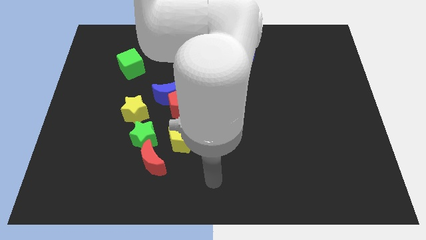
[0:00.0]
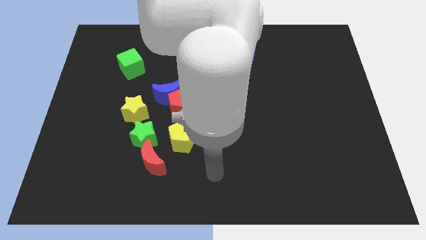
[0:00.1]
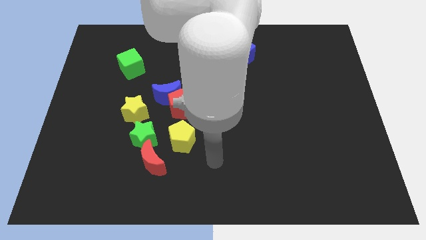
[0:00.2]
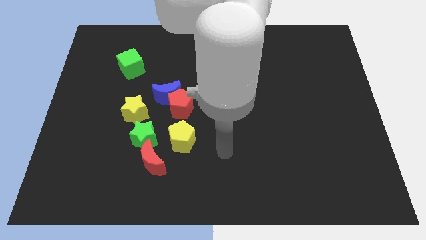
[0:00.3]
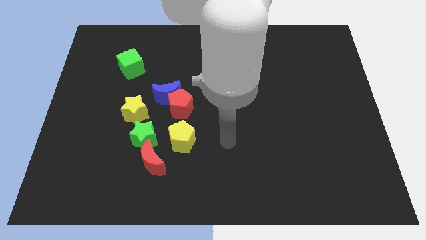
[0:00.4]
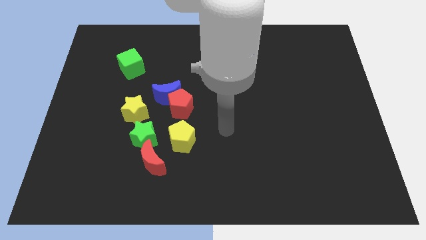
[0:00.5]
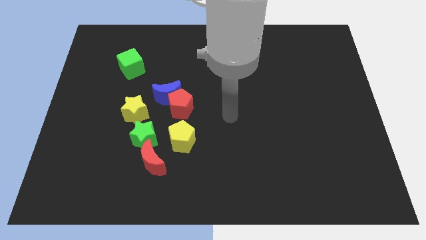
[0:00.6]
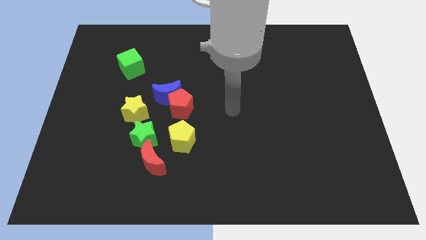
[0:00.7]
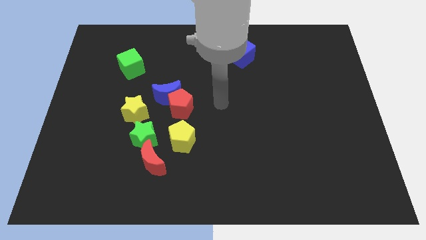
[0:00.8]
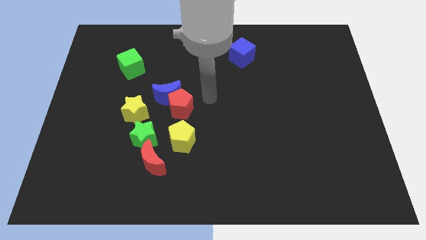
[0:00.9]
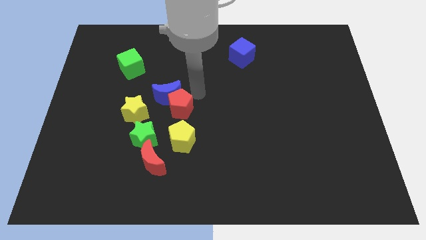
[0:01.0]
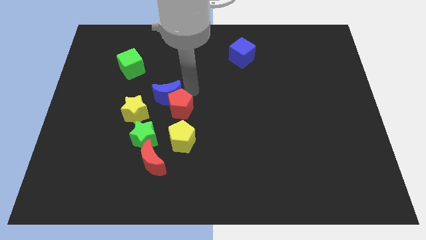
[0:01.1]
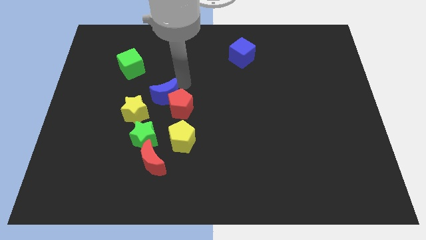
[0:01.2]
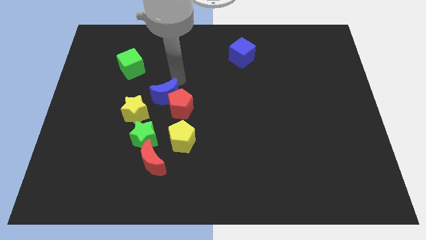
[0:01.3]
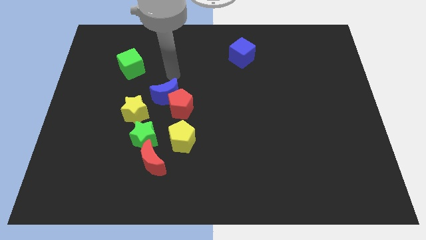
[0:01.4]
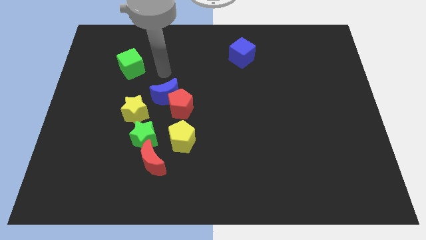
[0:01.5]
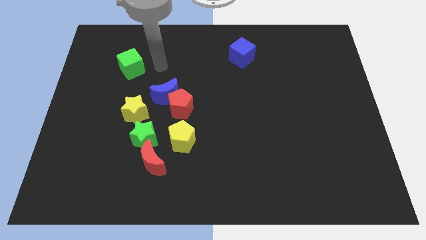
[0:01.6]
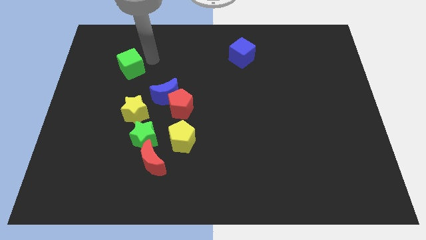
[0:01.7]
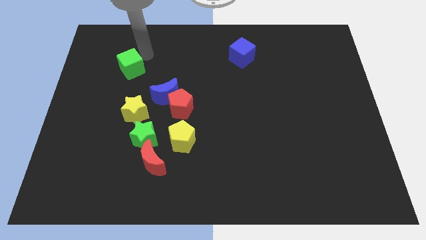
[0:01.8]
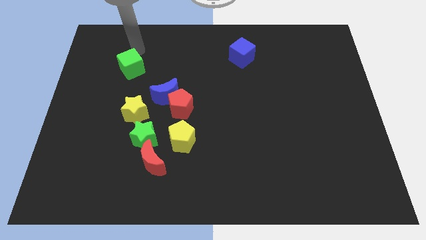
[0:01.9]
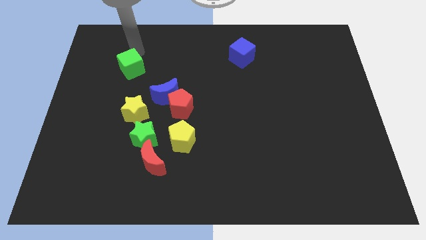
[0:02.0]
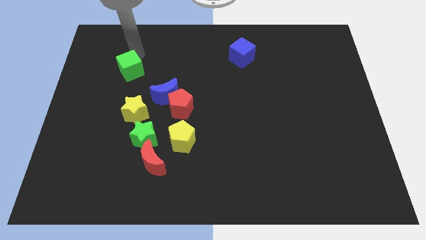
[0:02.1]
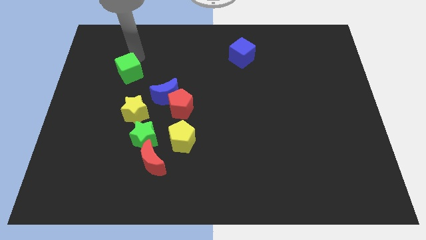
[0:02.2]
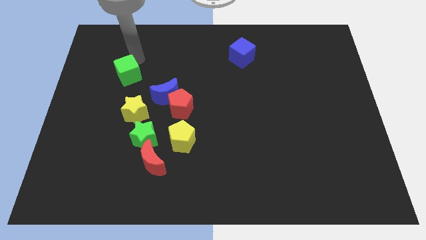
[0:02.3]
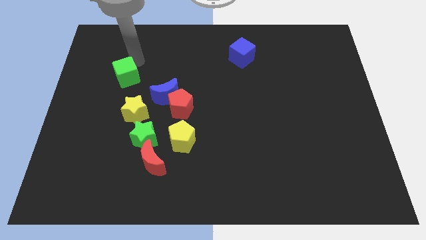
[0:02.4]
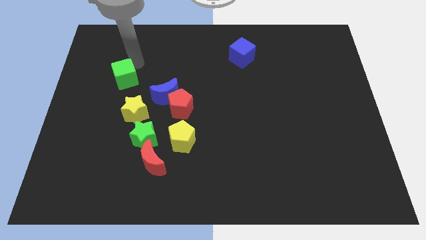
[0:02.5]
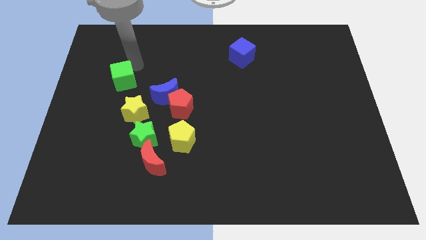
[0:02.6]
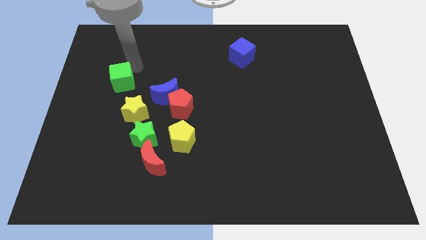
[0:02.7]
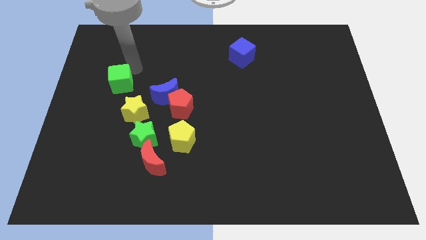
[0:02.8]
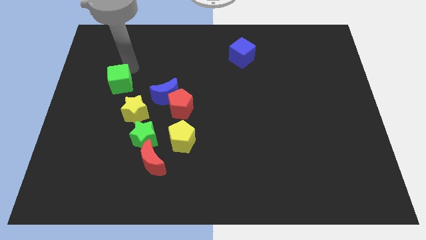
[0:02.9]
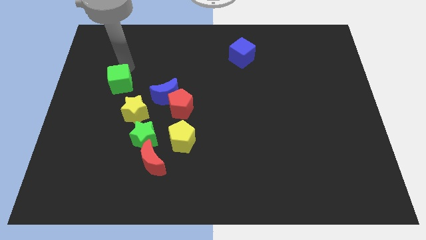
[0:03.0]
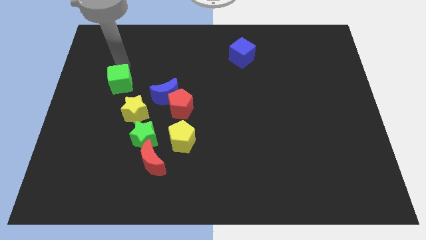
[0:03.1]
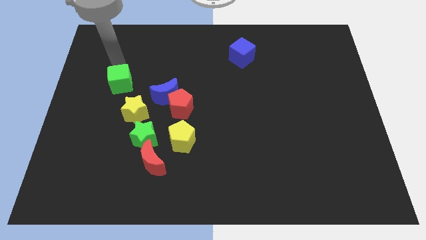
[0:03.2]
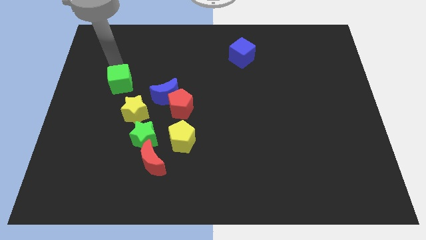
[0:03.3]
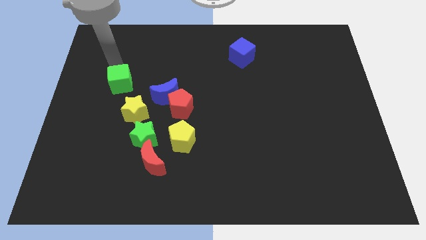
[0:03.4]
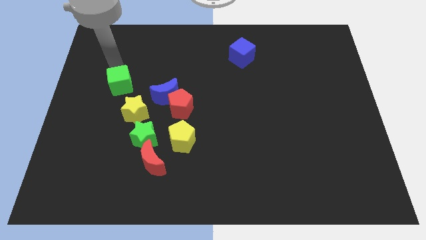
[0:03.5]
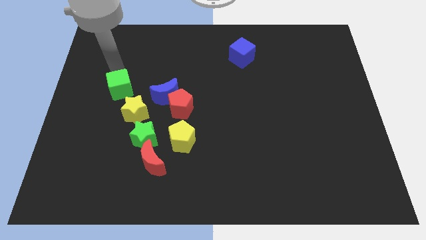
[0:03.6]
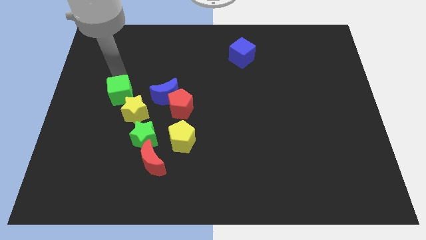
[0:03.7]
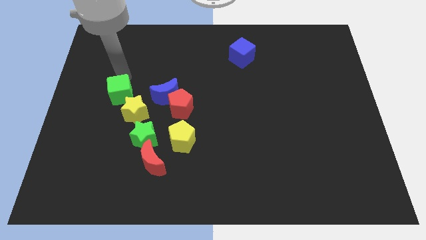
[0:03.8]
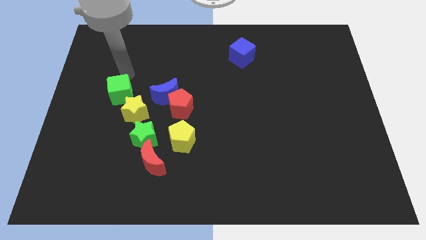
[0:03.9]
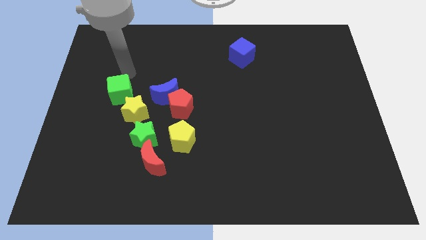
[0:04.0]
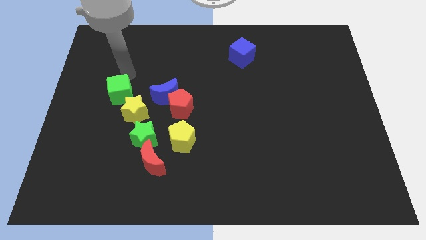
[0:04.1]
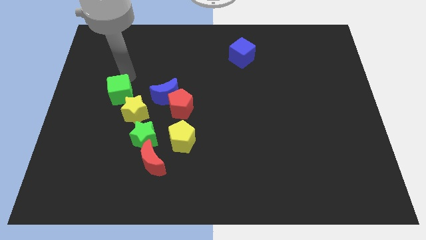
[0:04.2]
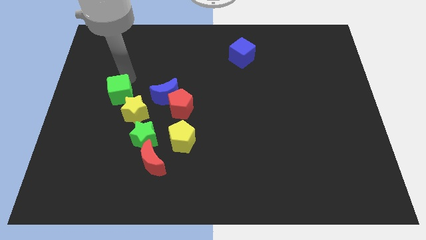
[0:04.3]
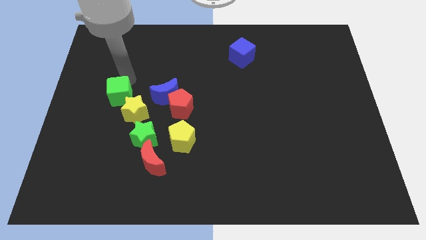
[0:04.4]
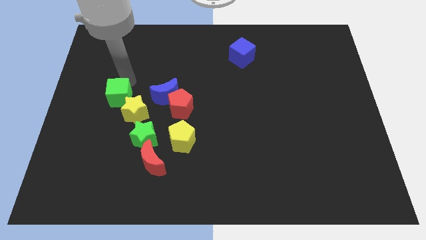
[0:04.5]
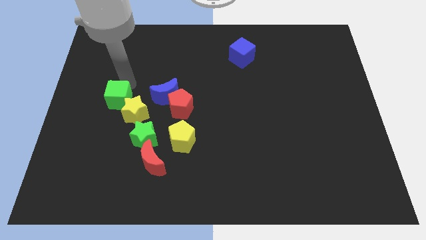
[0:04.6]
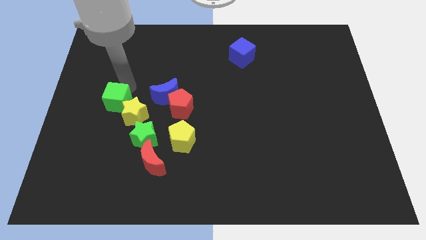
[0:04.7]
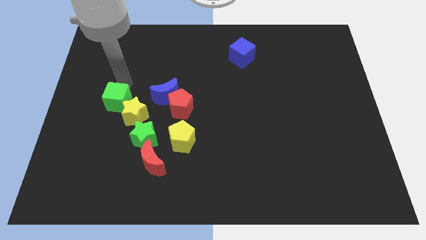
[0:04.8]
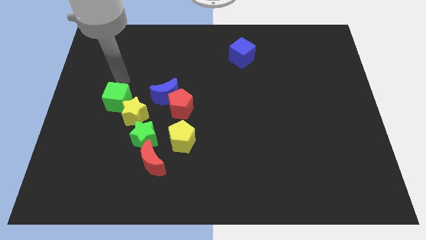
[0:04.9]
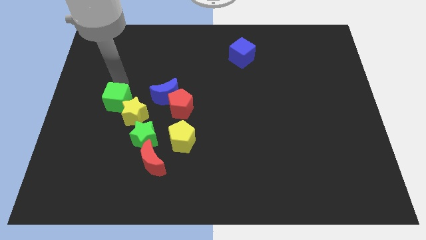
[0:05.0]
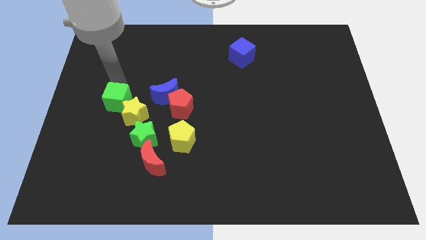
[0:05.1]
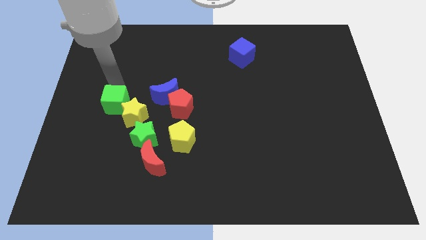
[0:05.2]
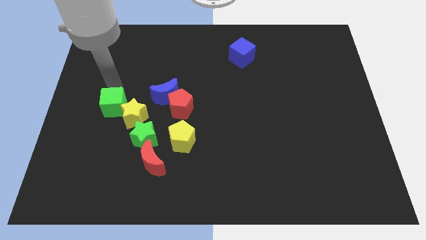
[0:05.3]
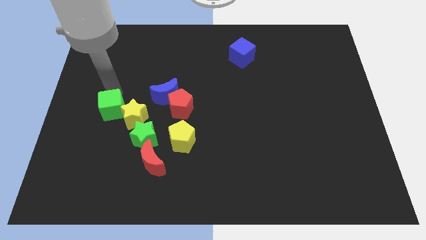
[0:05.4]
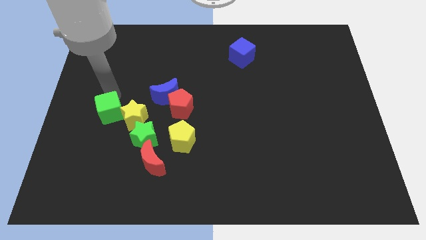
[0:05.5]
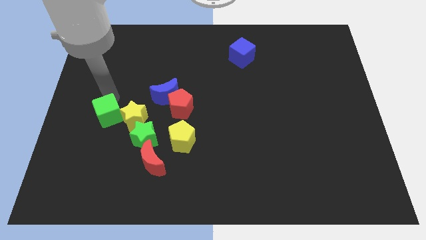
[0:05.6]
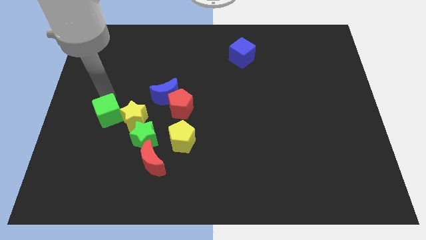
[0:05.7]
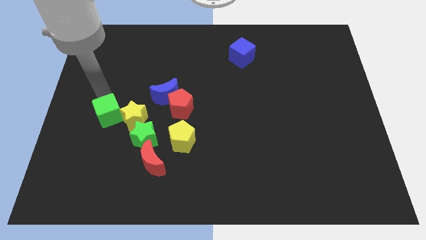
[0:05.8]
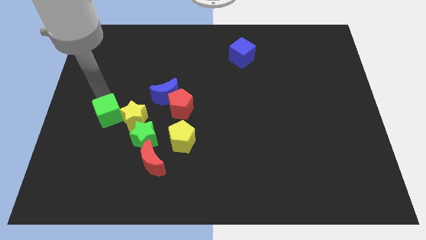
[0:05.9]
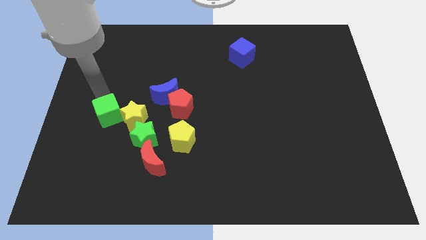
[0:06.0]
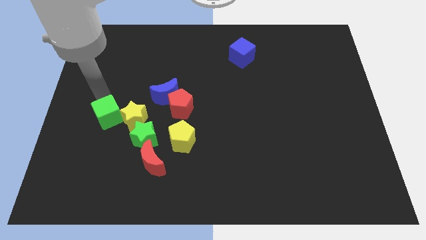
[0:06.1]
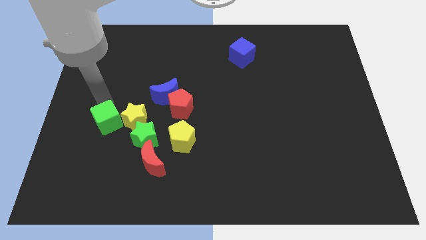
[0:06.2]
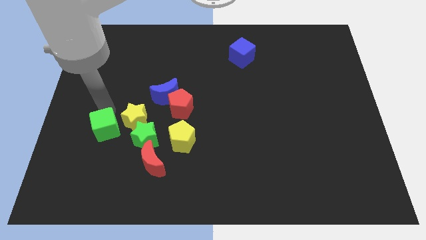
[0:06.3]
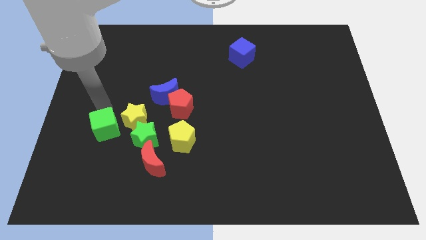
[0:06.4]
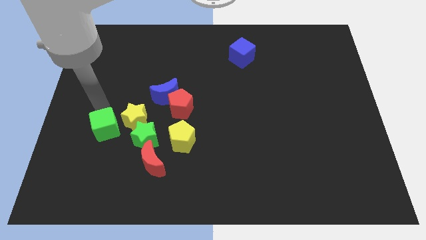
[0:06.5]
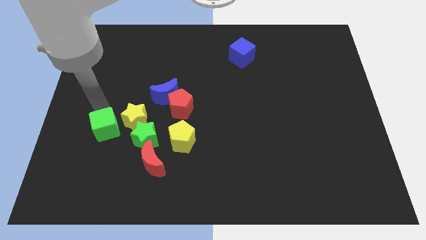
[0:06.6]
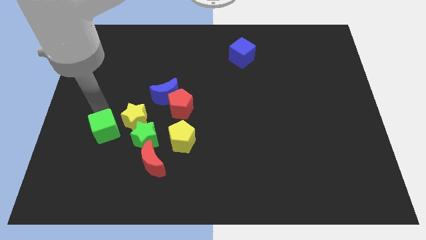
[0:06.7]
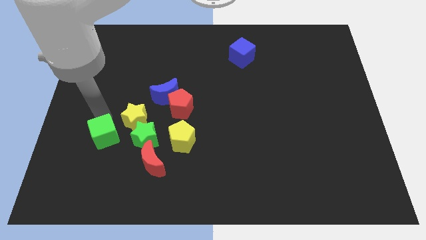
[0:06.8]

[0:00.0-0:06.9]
move the green cube down

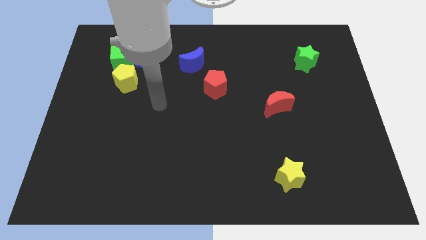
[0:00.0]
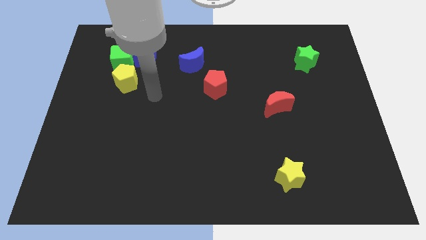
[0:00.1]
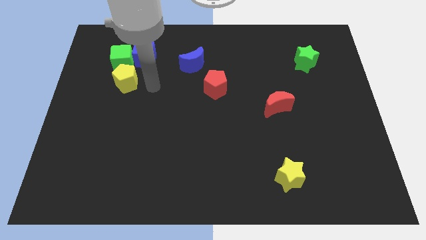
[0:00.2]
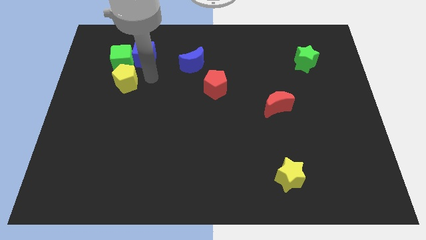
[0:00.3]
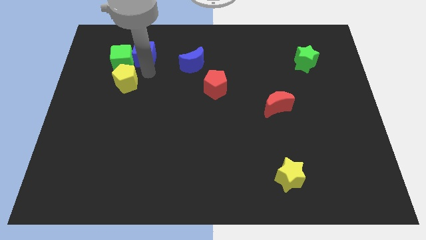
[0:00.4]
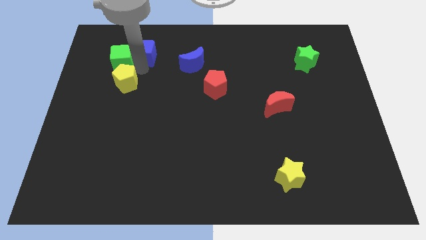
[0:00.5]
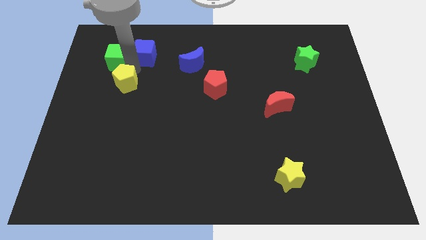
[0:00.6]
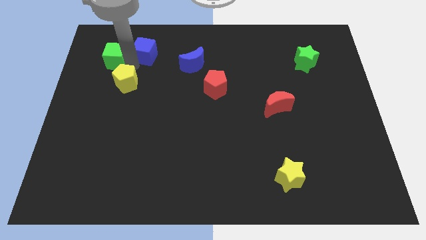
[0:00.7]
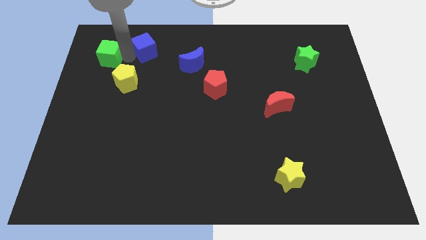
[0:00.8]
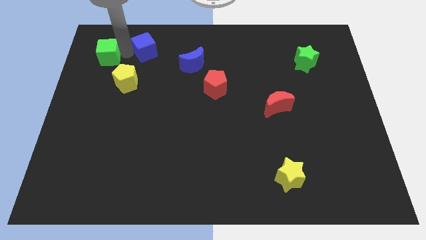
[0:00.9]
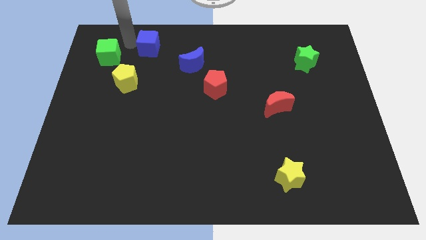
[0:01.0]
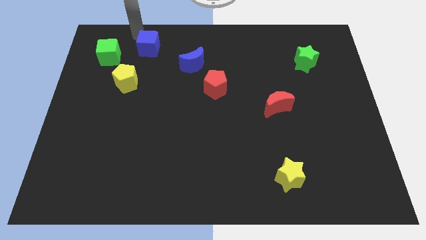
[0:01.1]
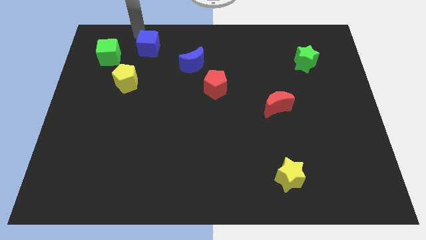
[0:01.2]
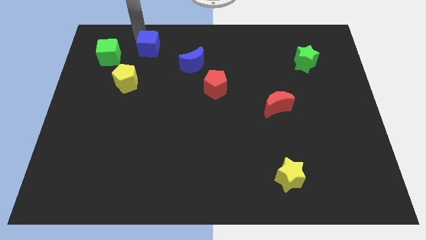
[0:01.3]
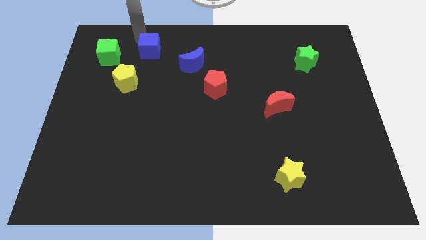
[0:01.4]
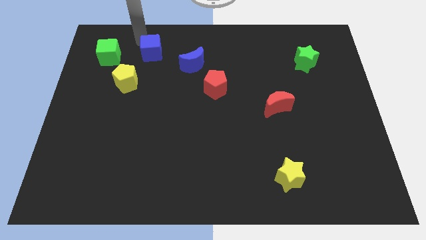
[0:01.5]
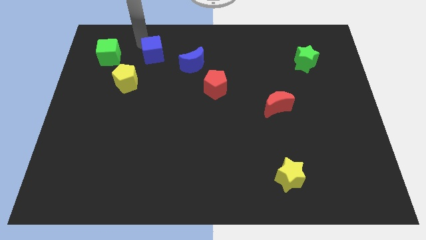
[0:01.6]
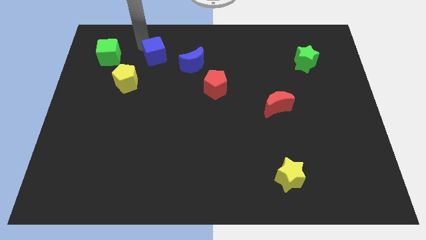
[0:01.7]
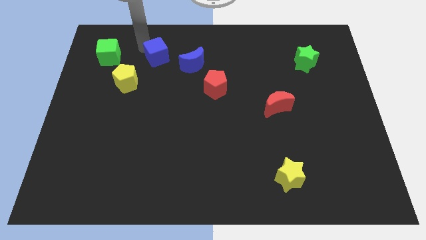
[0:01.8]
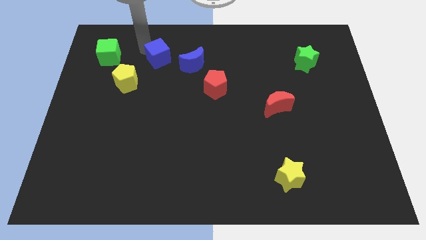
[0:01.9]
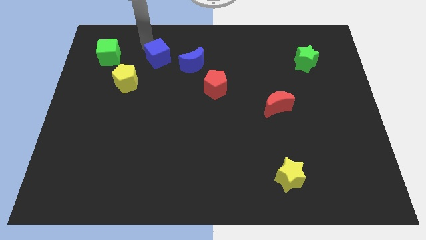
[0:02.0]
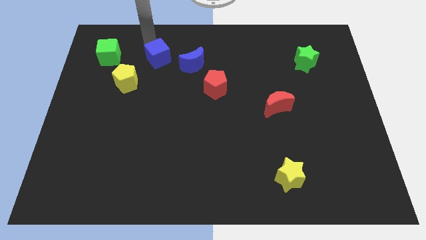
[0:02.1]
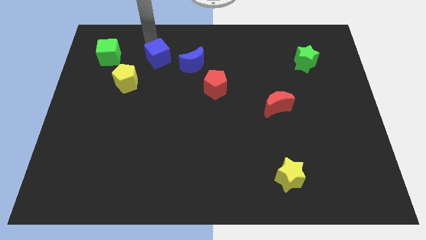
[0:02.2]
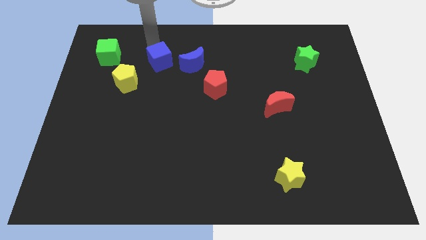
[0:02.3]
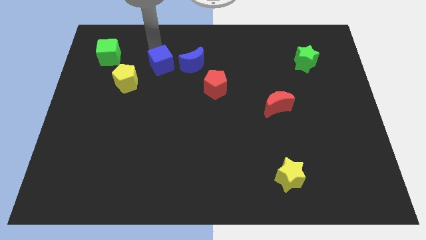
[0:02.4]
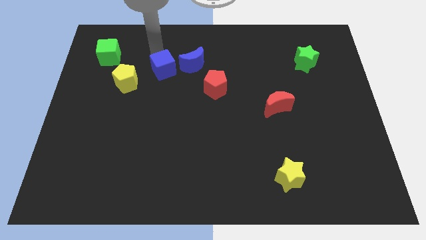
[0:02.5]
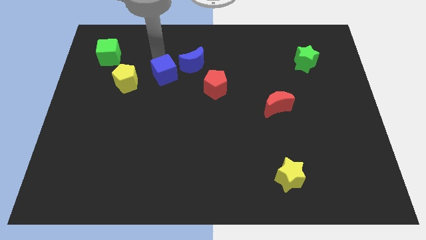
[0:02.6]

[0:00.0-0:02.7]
slightly slide the blue cube downwards and right diagonally
